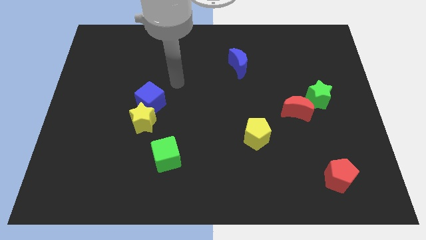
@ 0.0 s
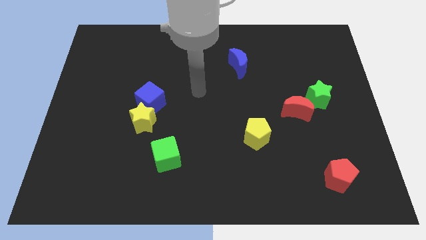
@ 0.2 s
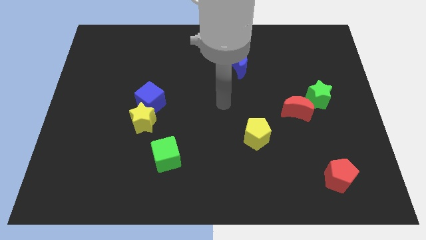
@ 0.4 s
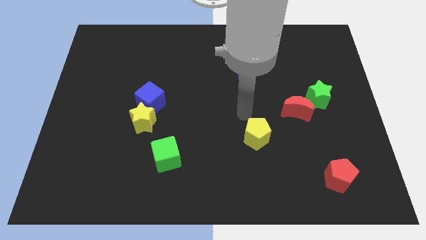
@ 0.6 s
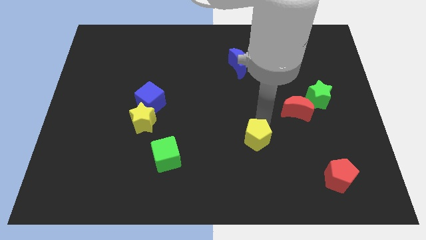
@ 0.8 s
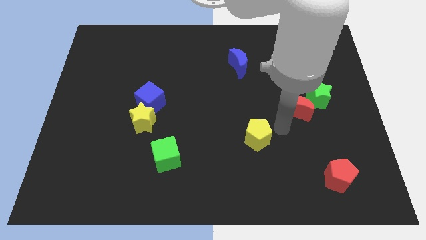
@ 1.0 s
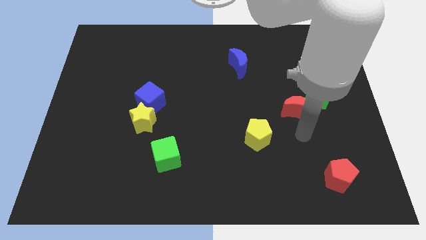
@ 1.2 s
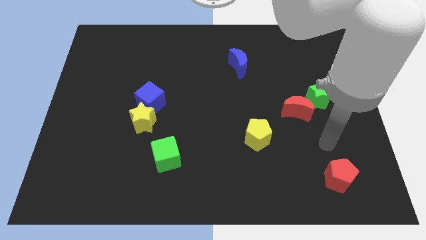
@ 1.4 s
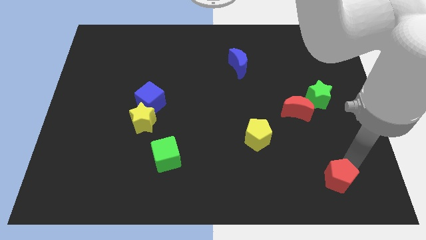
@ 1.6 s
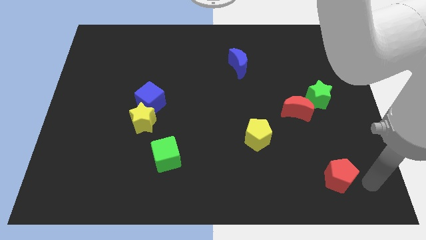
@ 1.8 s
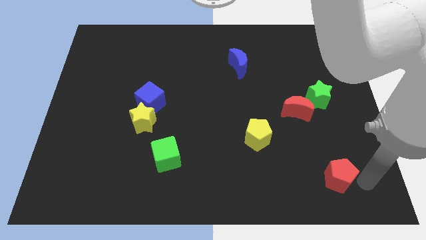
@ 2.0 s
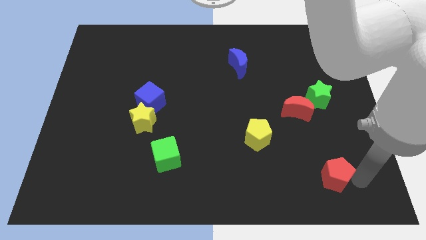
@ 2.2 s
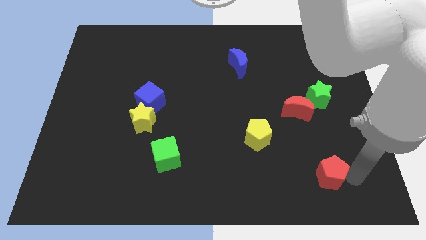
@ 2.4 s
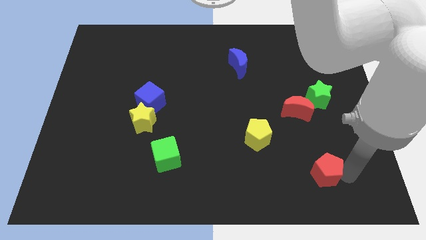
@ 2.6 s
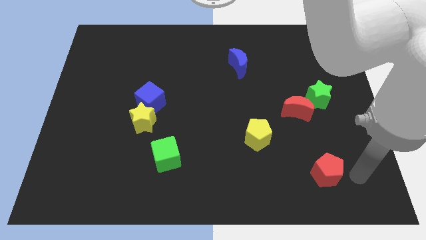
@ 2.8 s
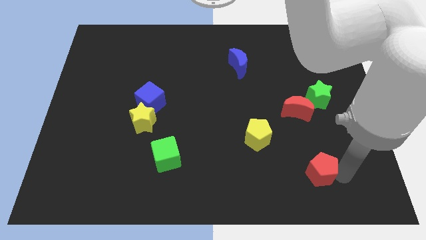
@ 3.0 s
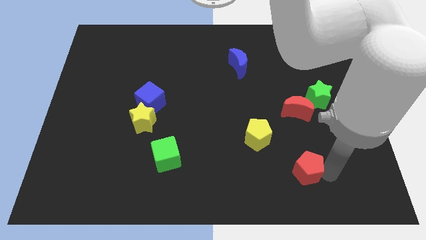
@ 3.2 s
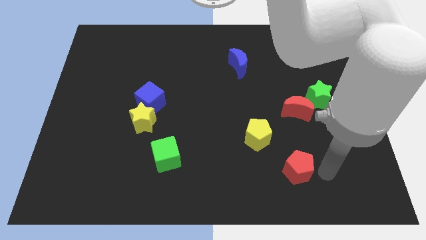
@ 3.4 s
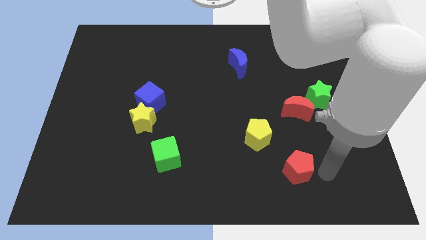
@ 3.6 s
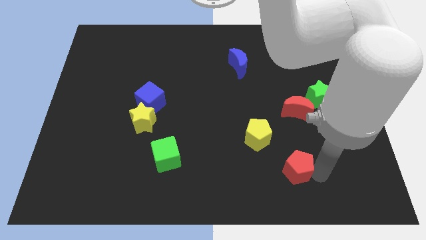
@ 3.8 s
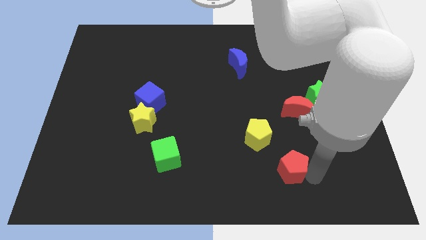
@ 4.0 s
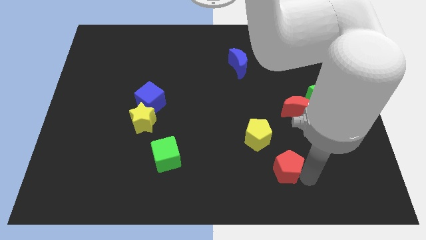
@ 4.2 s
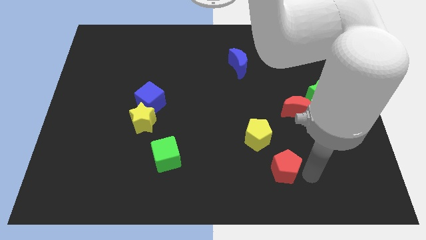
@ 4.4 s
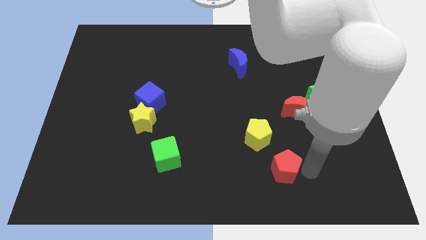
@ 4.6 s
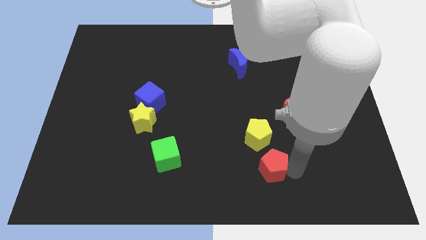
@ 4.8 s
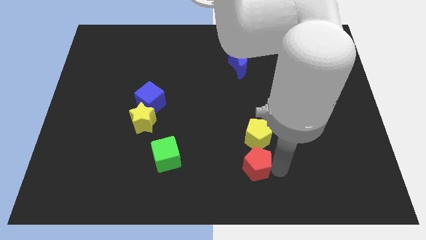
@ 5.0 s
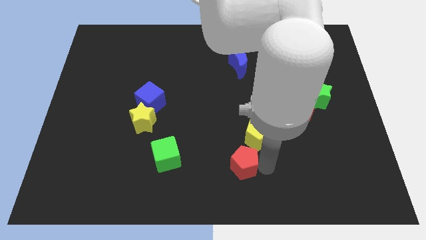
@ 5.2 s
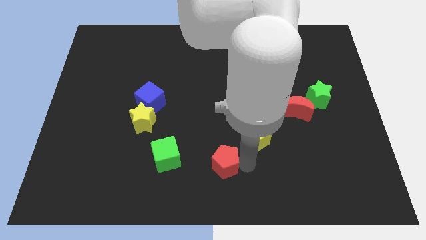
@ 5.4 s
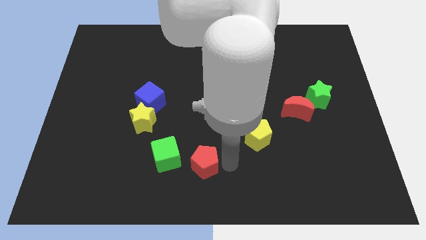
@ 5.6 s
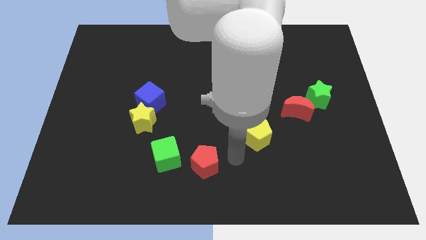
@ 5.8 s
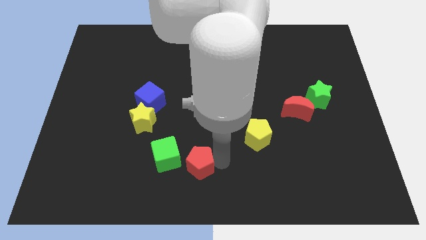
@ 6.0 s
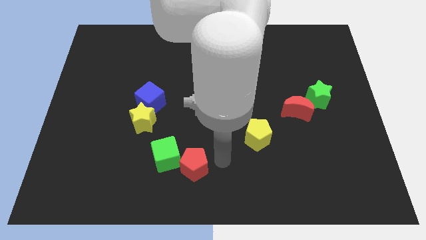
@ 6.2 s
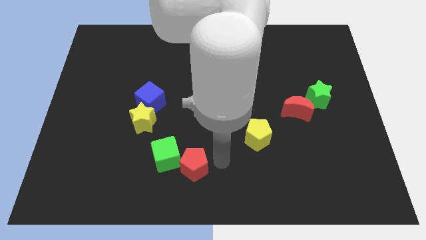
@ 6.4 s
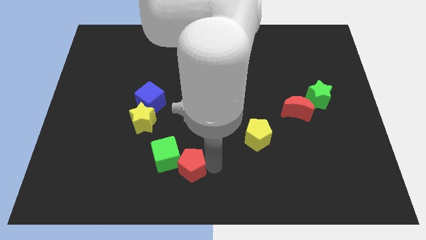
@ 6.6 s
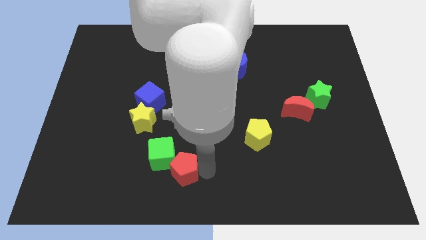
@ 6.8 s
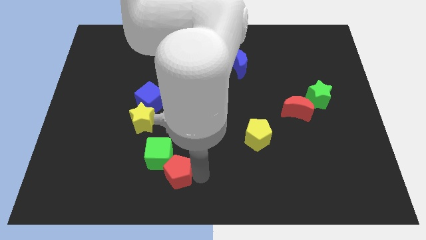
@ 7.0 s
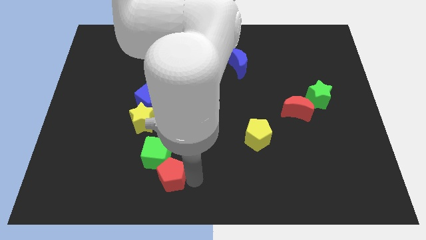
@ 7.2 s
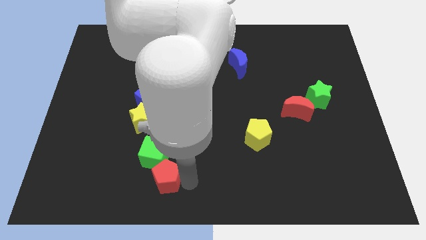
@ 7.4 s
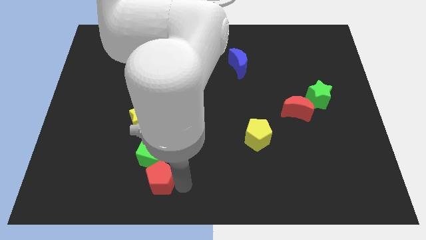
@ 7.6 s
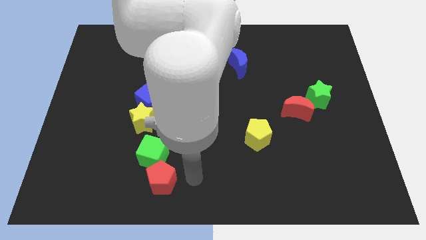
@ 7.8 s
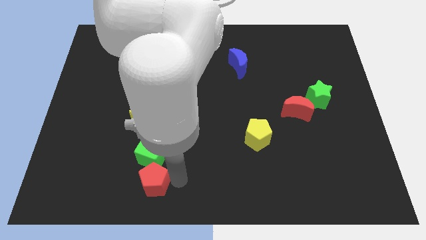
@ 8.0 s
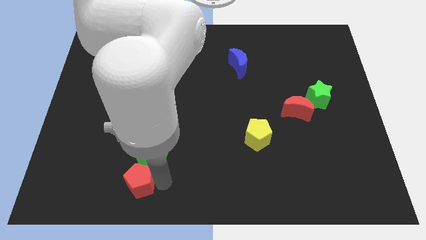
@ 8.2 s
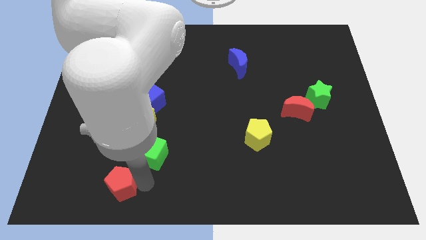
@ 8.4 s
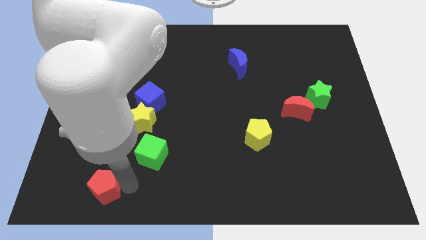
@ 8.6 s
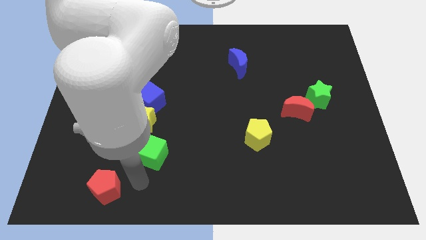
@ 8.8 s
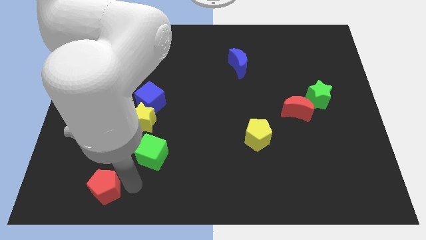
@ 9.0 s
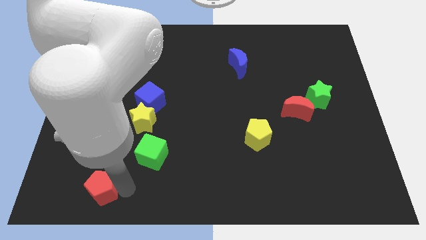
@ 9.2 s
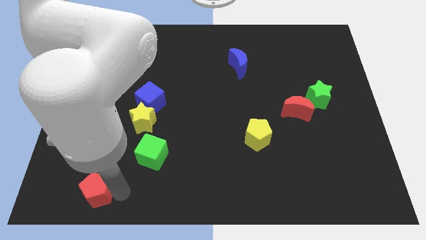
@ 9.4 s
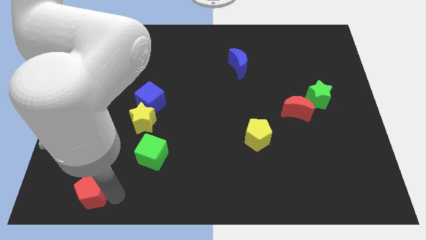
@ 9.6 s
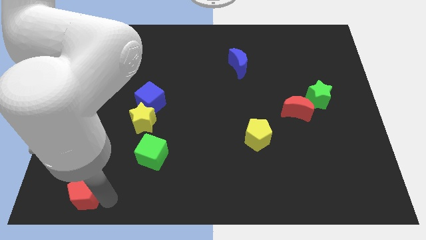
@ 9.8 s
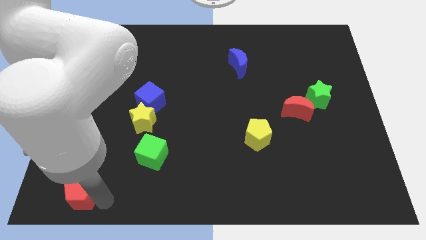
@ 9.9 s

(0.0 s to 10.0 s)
push the red pentagon to the lower left corner

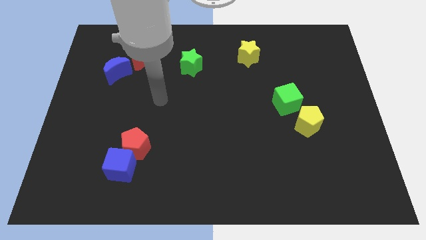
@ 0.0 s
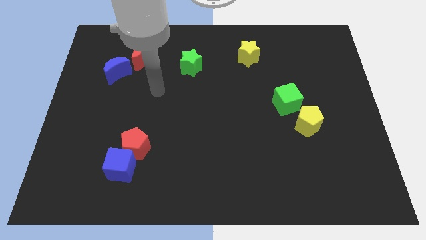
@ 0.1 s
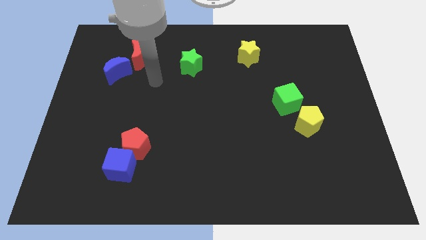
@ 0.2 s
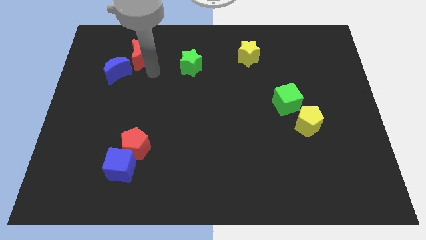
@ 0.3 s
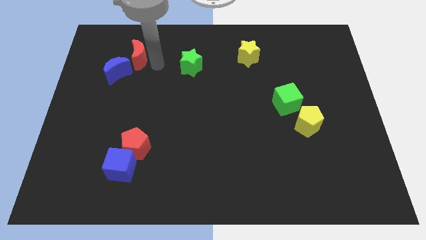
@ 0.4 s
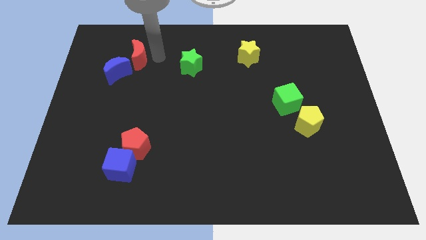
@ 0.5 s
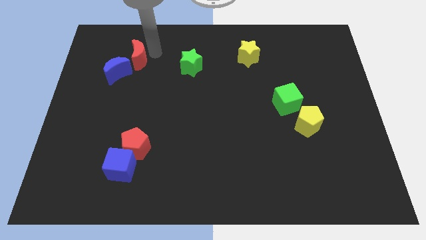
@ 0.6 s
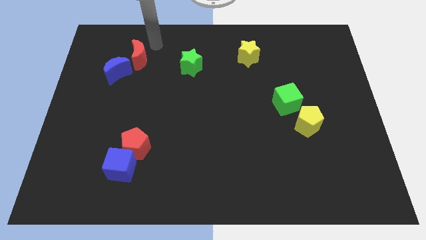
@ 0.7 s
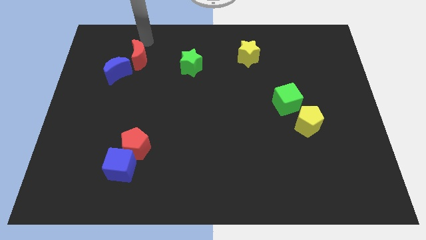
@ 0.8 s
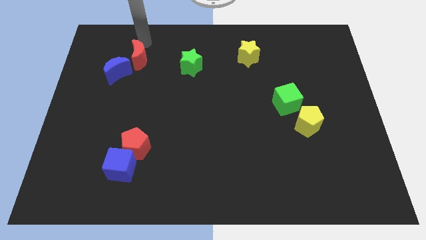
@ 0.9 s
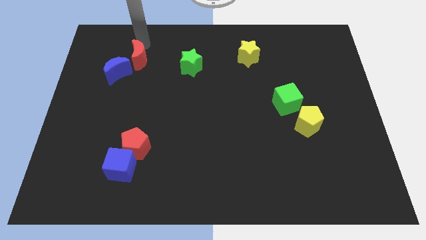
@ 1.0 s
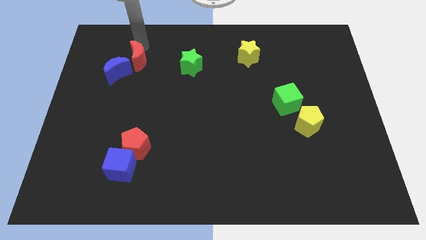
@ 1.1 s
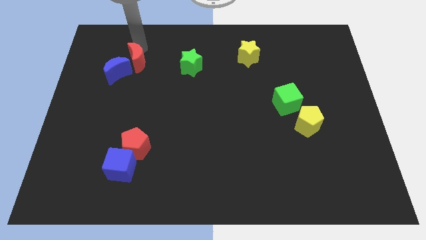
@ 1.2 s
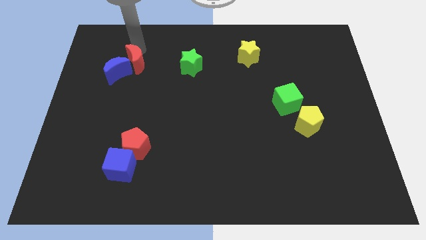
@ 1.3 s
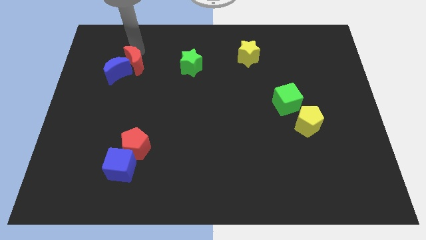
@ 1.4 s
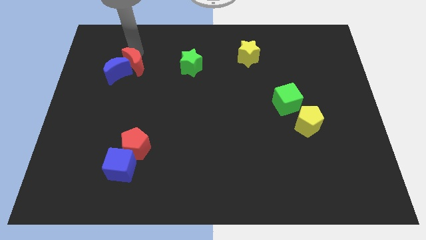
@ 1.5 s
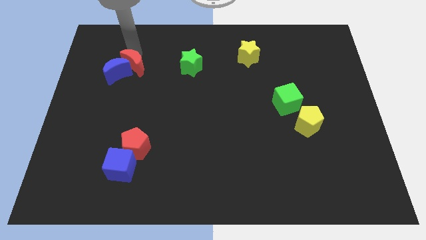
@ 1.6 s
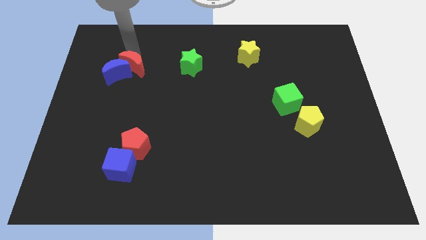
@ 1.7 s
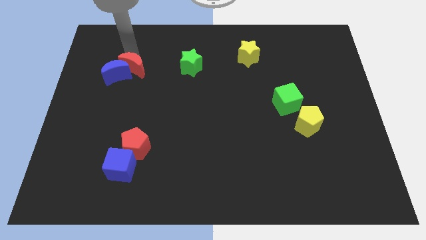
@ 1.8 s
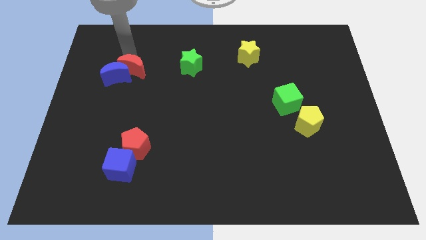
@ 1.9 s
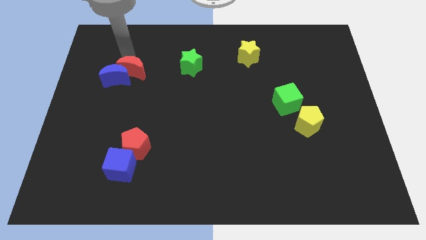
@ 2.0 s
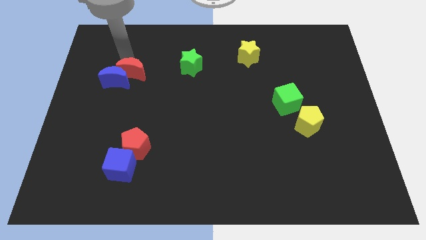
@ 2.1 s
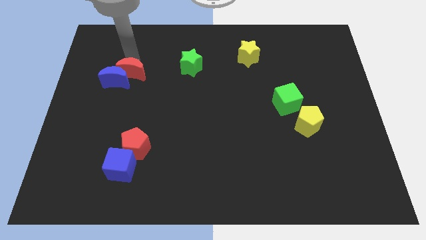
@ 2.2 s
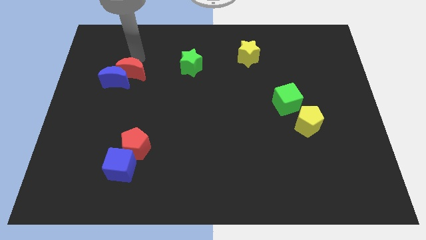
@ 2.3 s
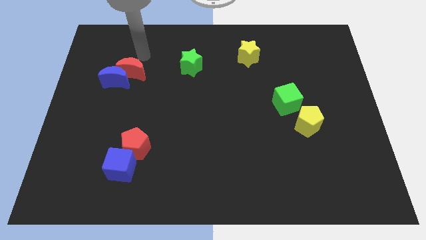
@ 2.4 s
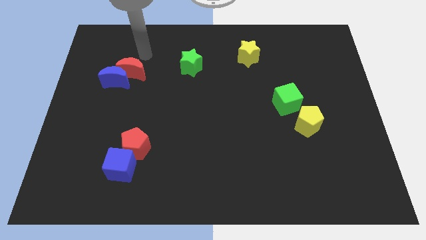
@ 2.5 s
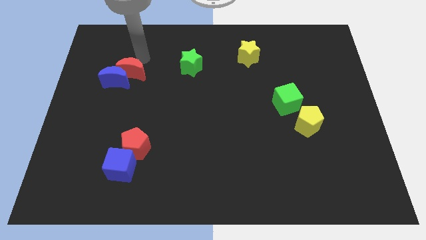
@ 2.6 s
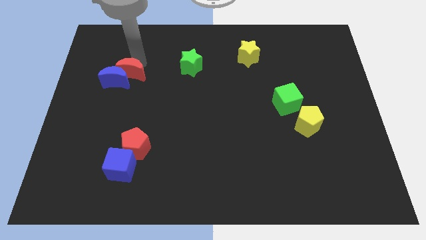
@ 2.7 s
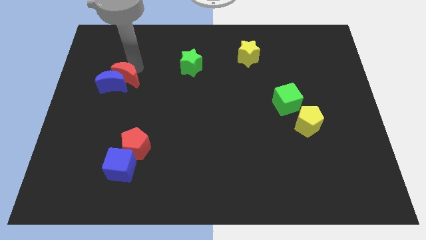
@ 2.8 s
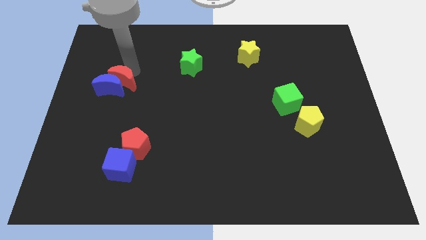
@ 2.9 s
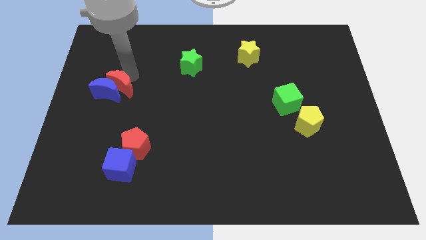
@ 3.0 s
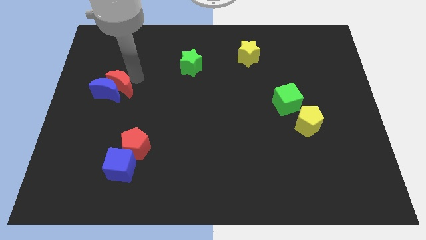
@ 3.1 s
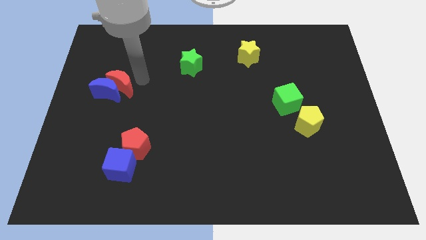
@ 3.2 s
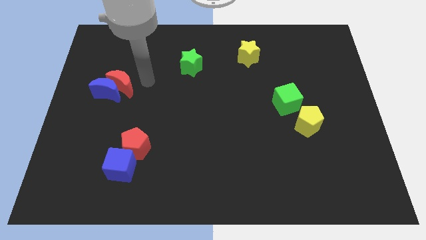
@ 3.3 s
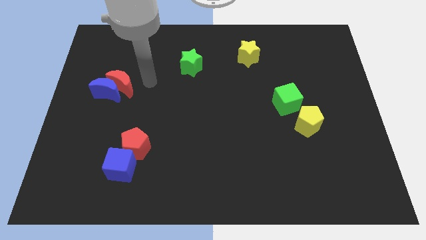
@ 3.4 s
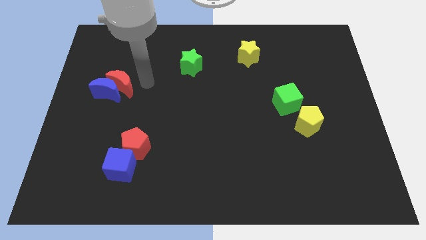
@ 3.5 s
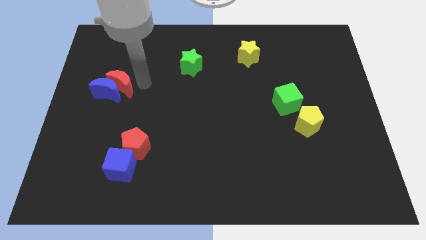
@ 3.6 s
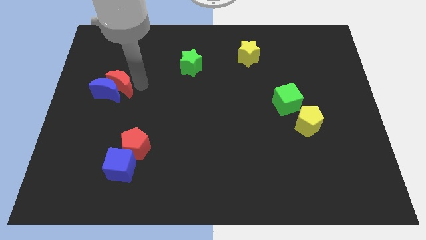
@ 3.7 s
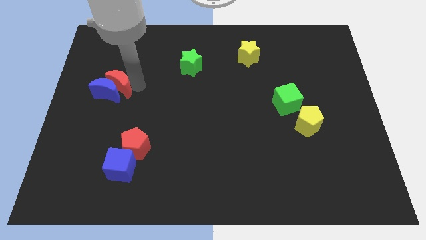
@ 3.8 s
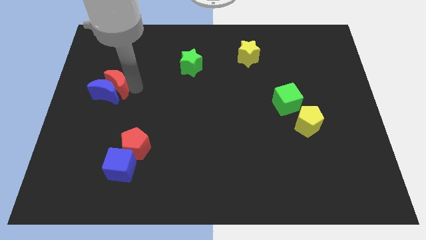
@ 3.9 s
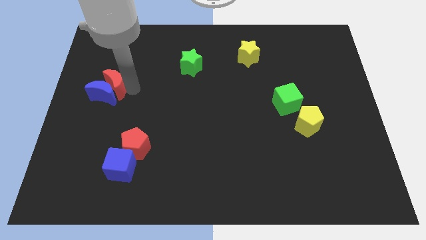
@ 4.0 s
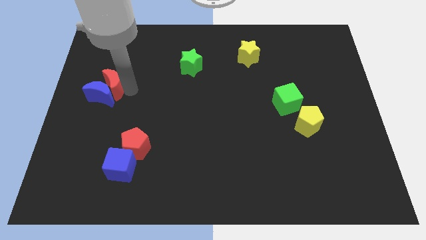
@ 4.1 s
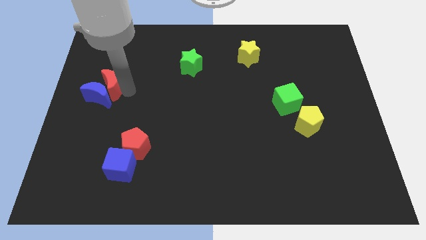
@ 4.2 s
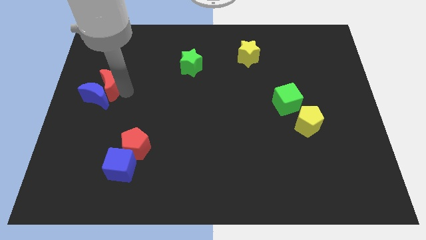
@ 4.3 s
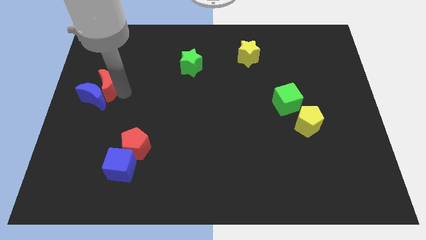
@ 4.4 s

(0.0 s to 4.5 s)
push the red moon to the left side
